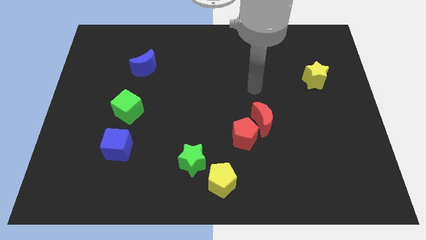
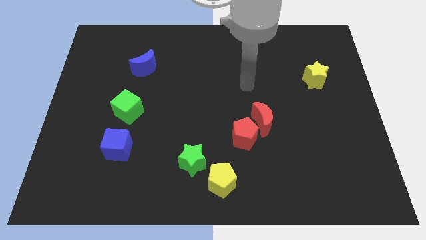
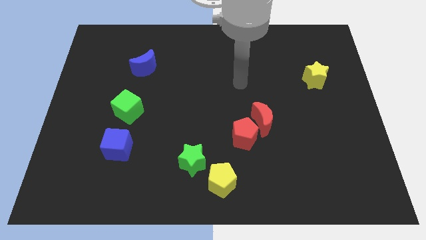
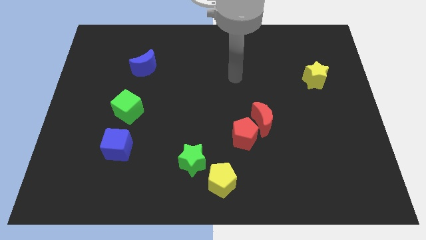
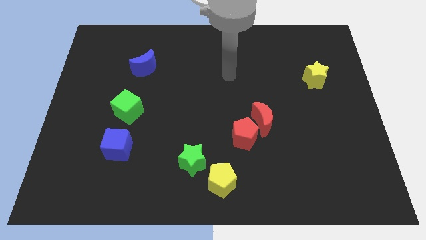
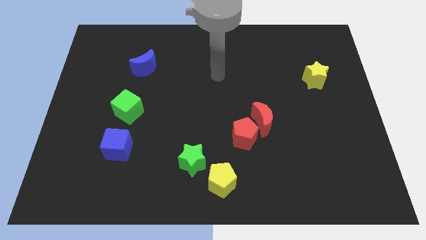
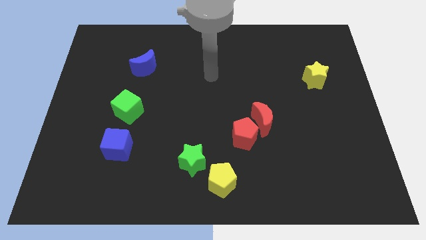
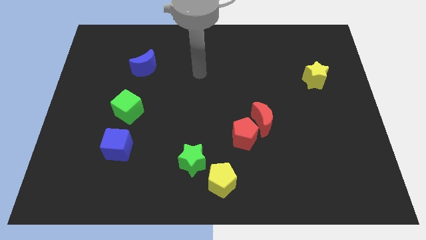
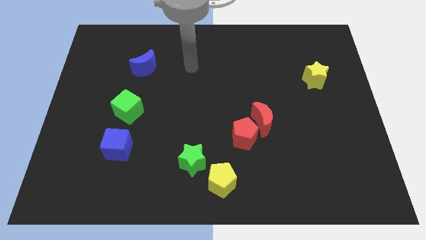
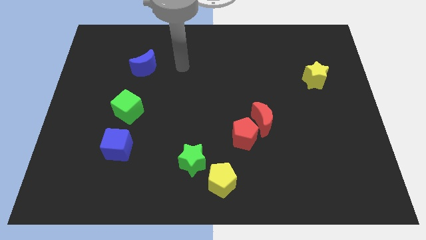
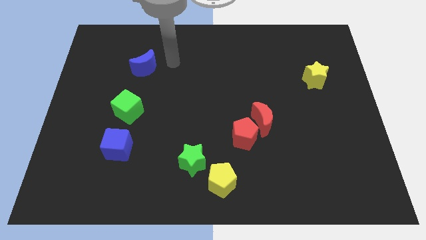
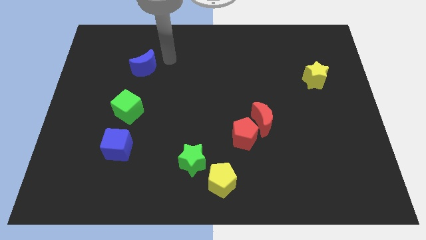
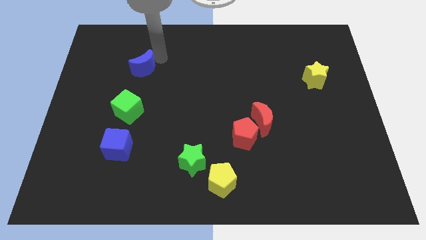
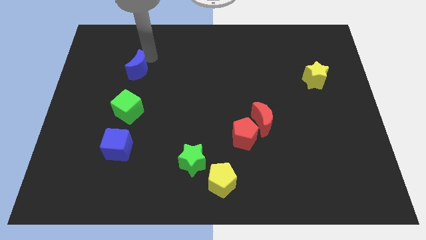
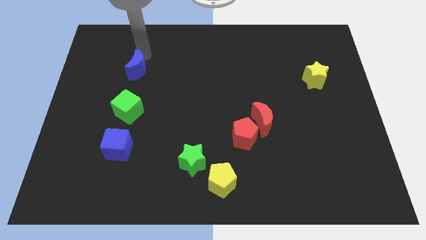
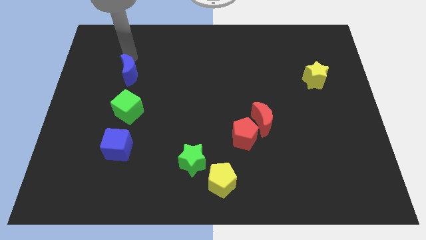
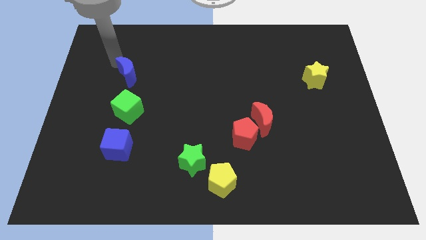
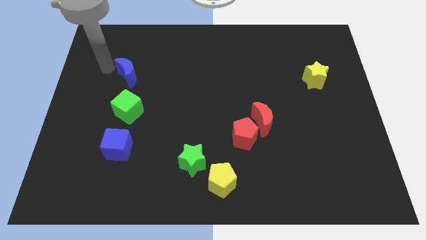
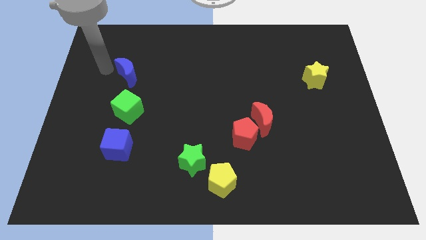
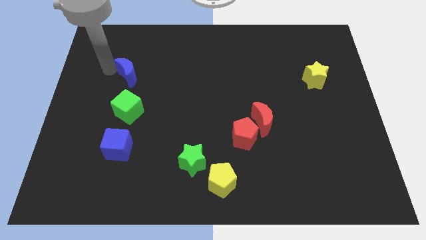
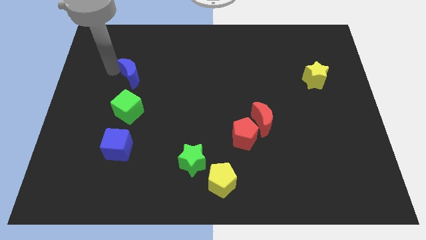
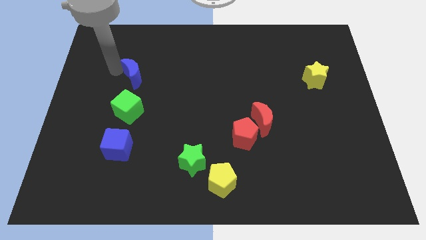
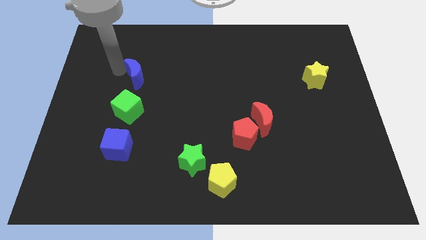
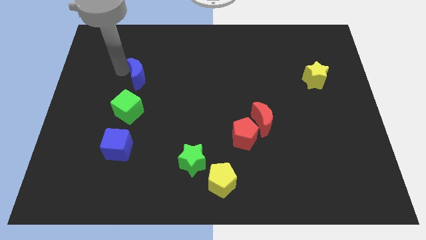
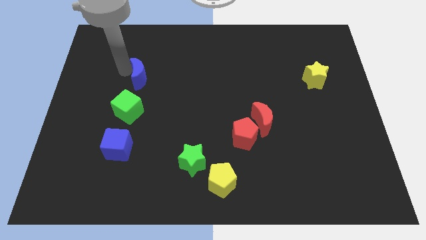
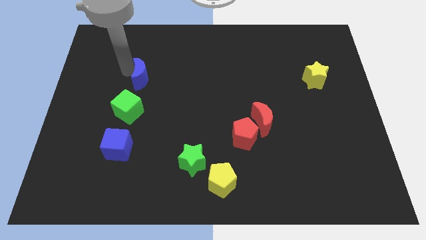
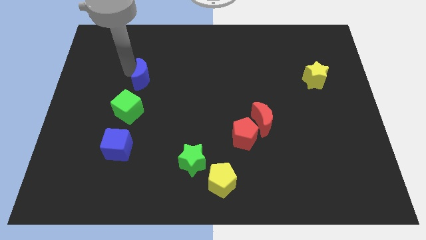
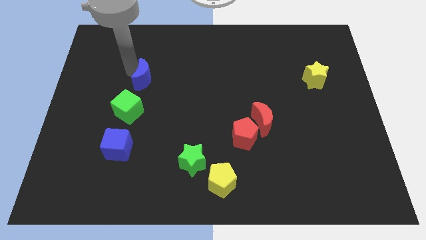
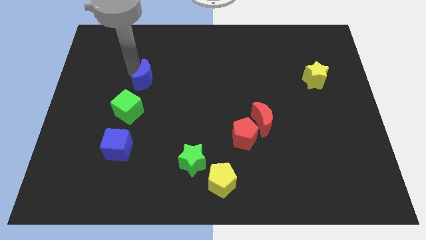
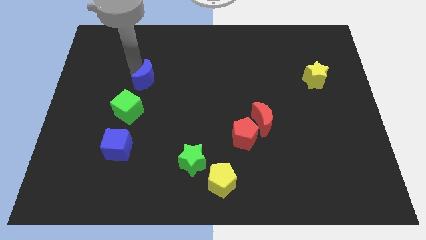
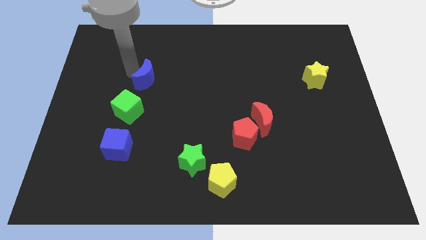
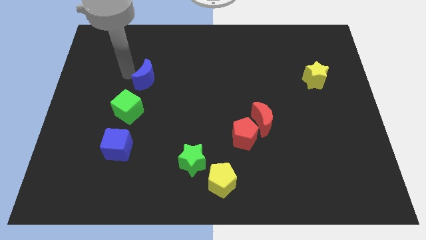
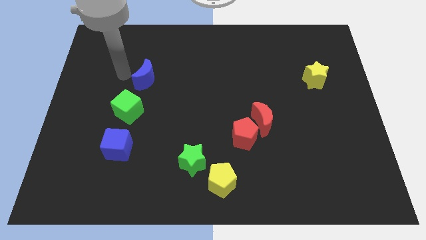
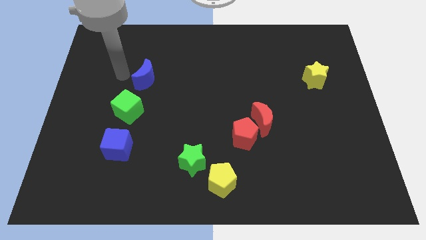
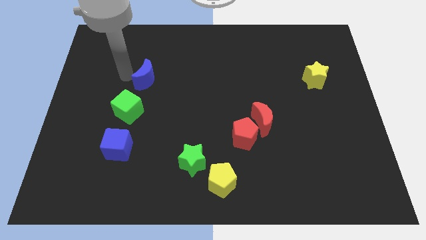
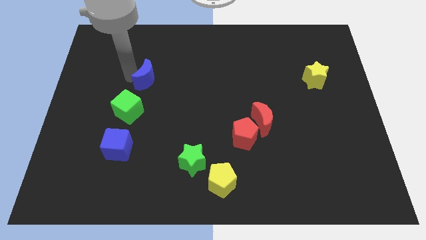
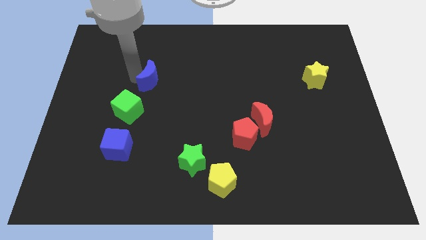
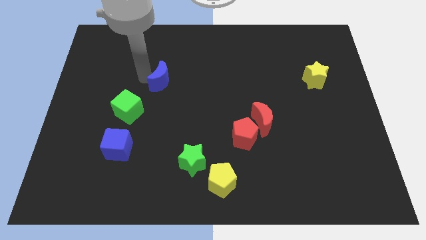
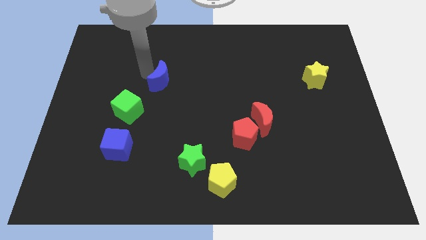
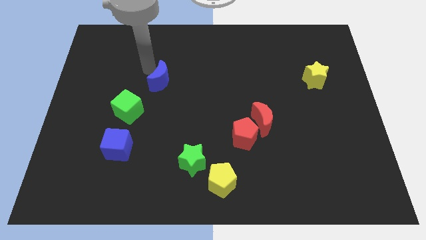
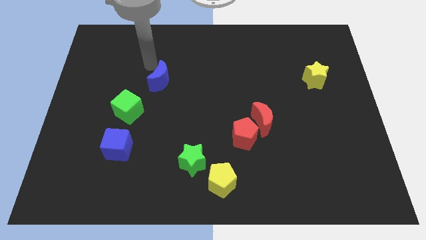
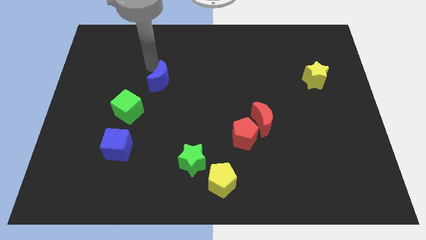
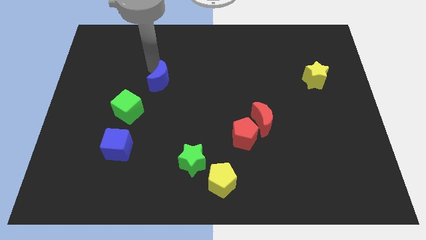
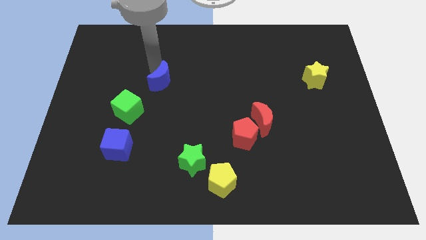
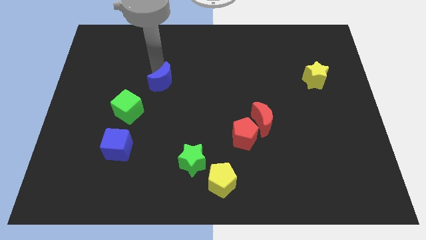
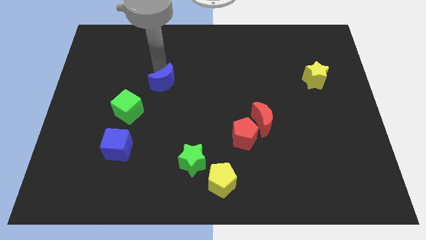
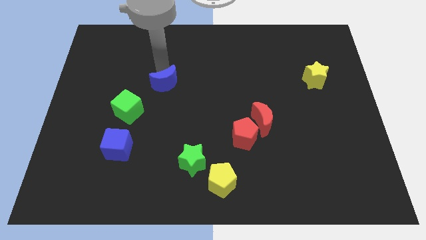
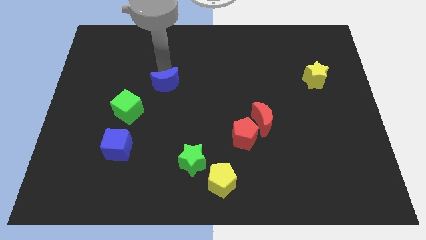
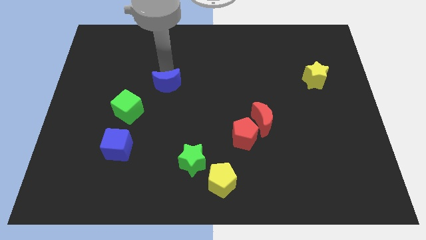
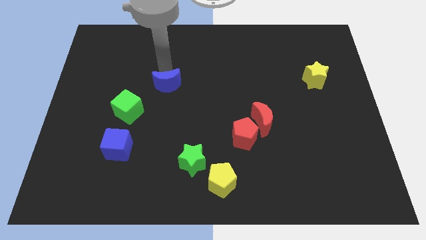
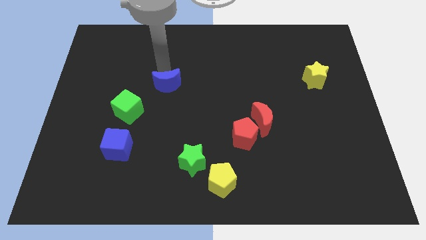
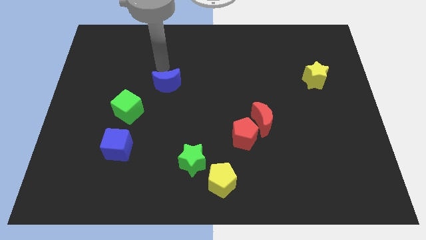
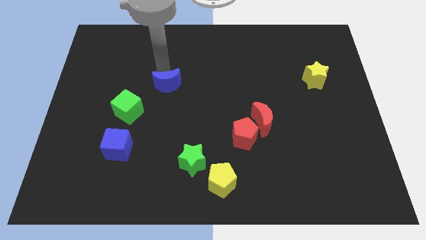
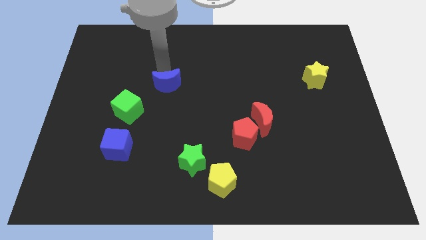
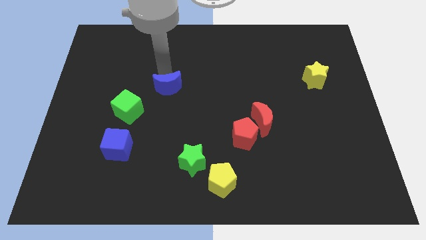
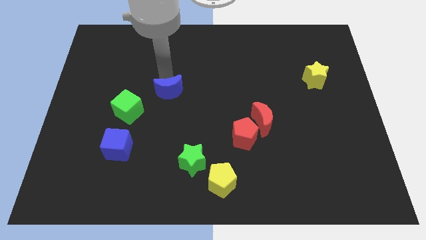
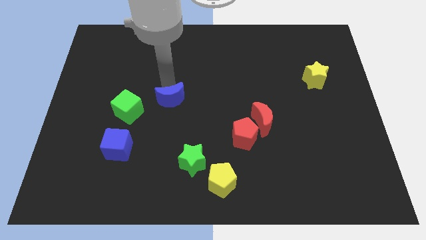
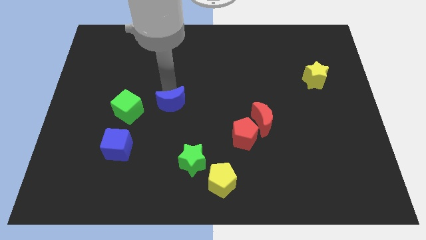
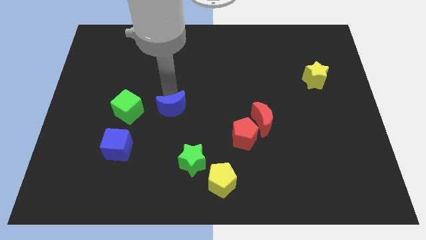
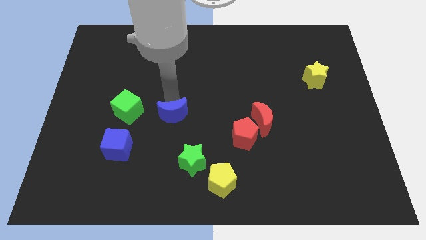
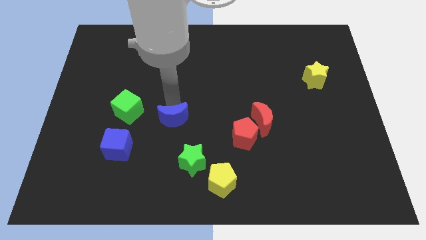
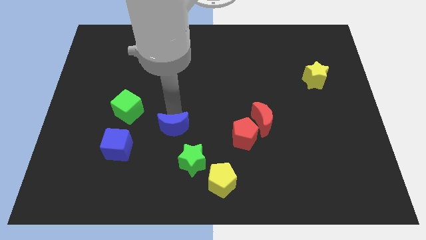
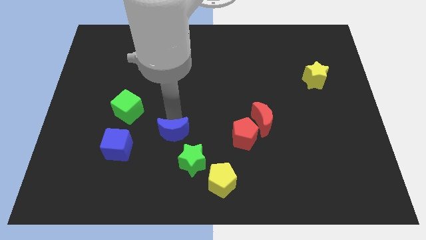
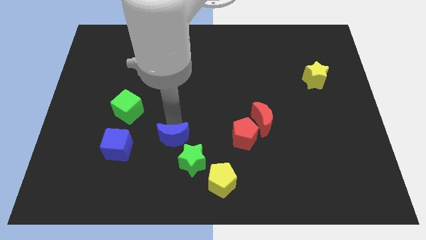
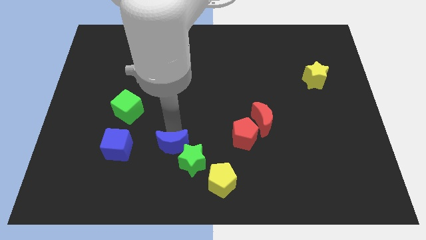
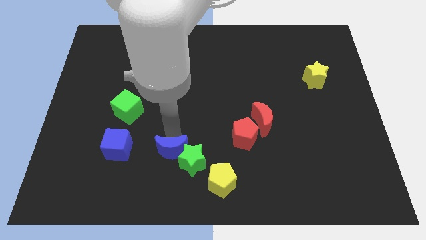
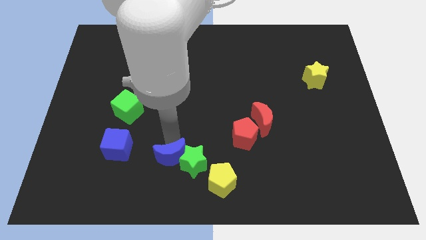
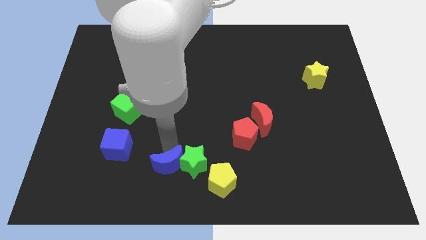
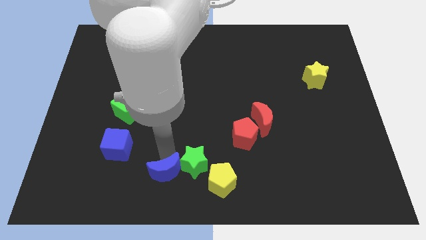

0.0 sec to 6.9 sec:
push the blue moon to the bottom
